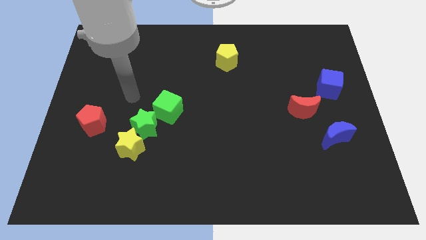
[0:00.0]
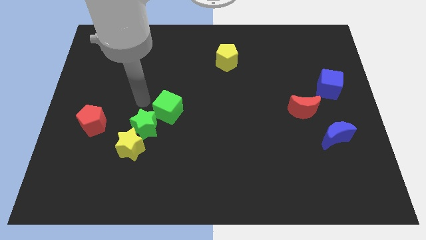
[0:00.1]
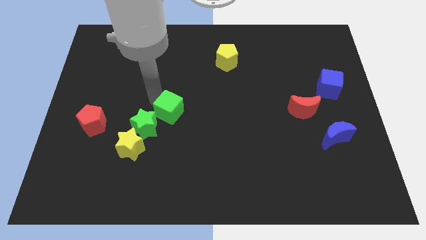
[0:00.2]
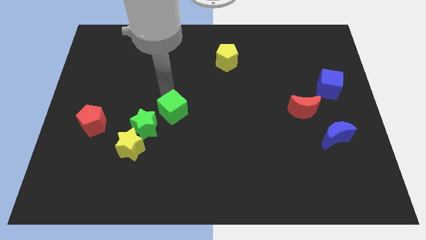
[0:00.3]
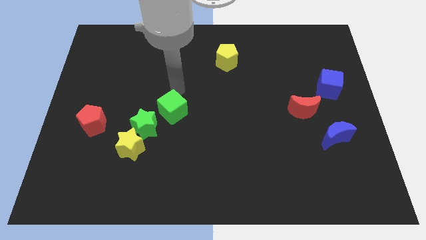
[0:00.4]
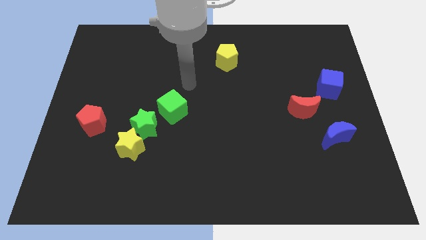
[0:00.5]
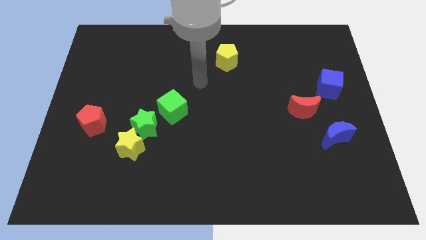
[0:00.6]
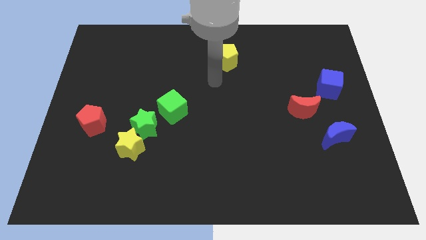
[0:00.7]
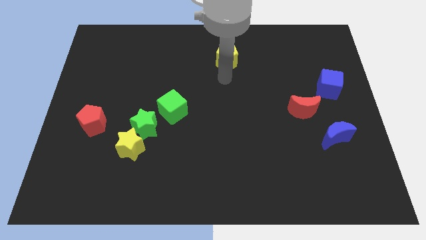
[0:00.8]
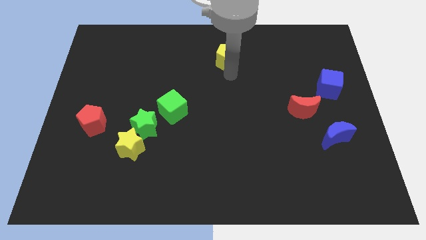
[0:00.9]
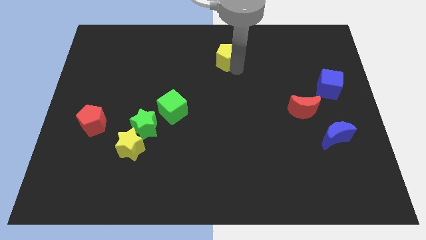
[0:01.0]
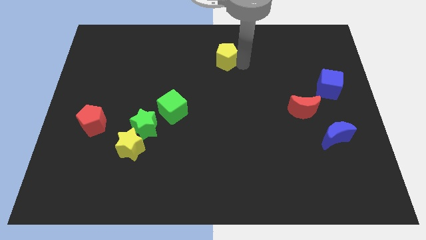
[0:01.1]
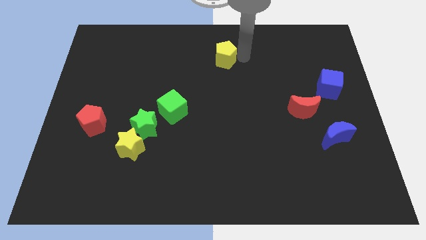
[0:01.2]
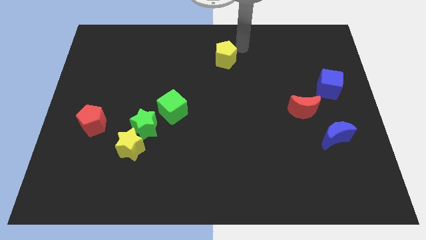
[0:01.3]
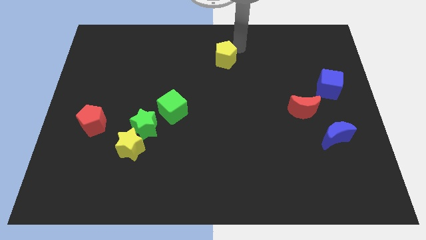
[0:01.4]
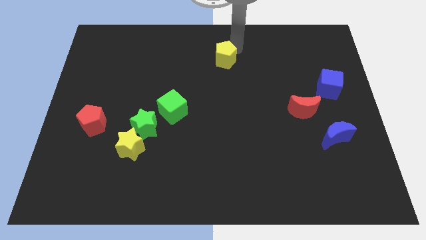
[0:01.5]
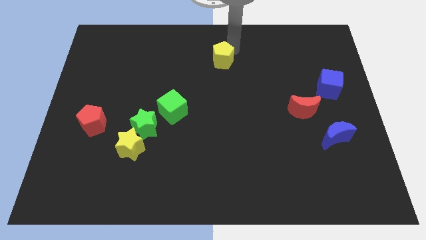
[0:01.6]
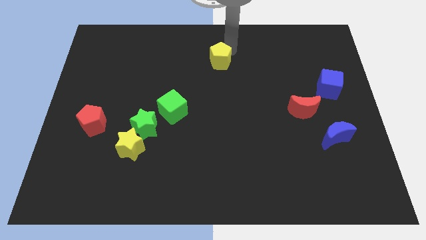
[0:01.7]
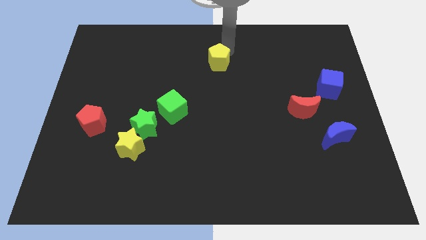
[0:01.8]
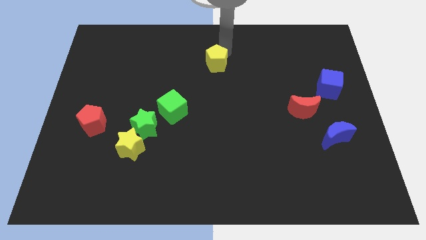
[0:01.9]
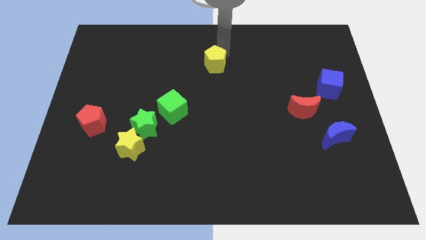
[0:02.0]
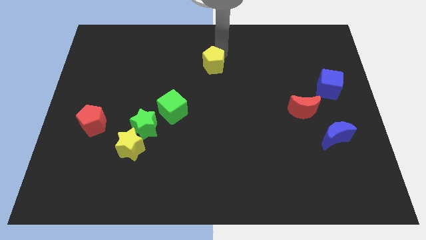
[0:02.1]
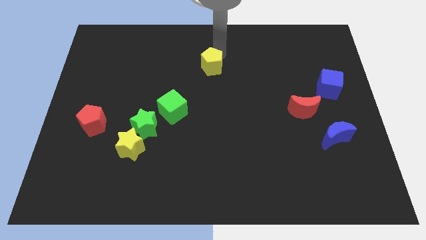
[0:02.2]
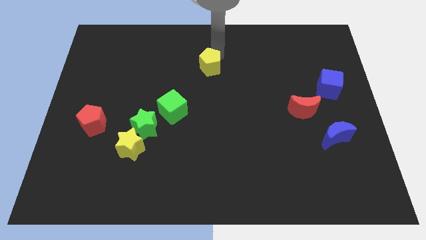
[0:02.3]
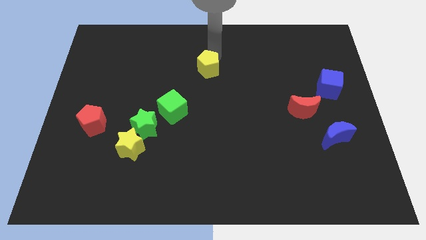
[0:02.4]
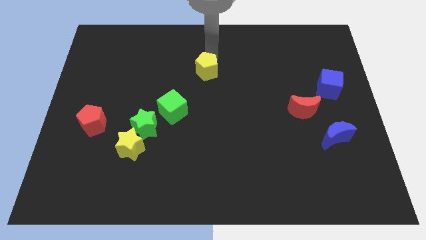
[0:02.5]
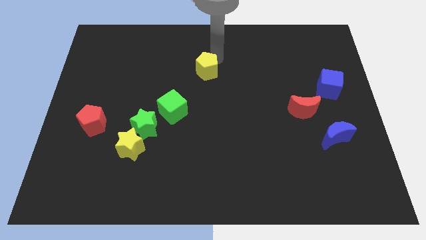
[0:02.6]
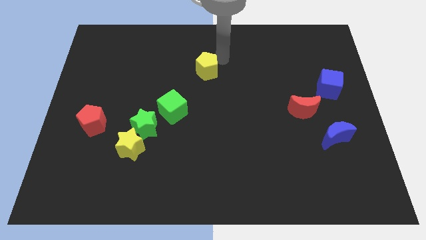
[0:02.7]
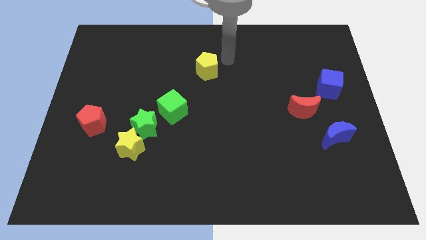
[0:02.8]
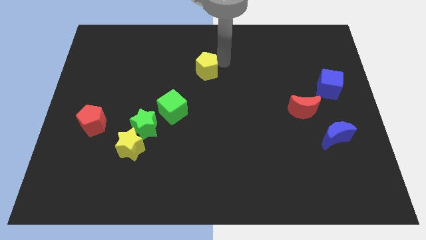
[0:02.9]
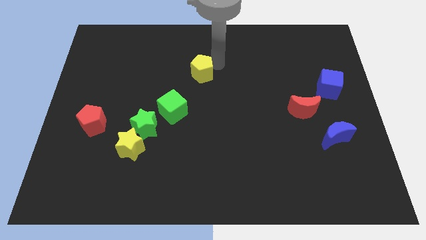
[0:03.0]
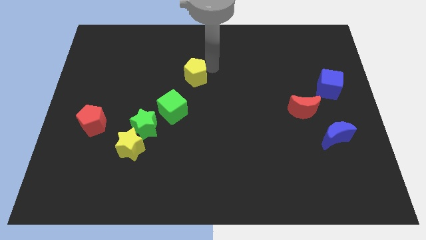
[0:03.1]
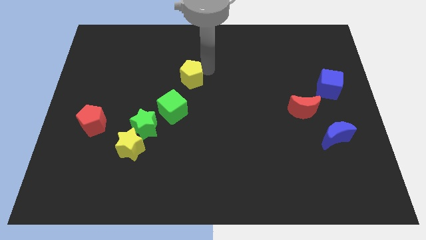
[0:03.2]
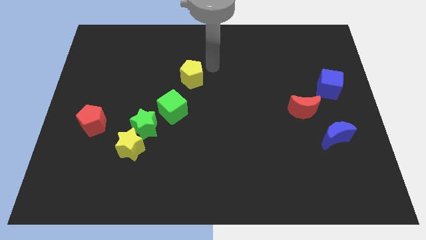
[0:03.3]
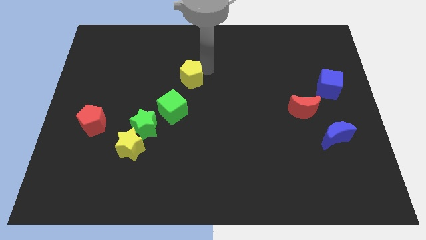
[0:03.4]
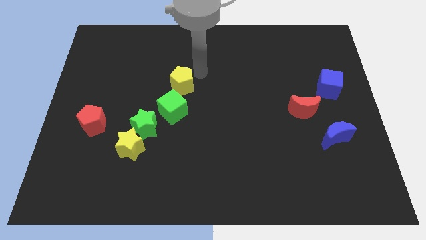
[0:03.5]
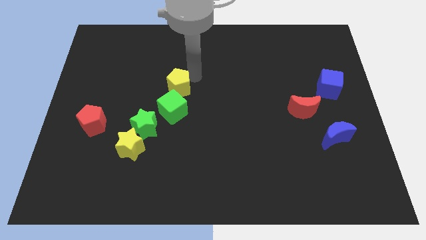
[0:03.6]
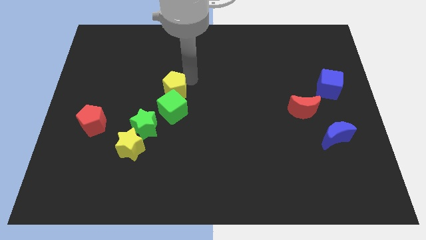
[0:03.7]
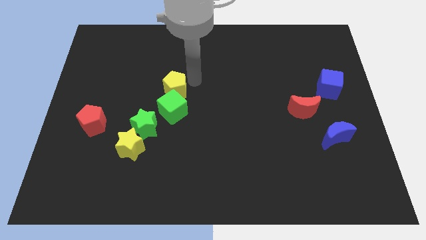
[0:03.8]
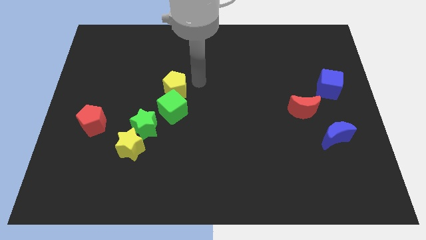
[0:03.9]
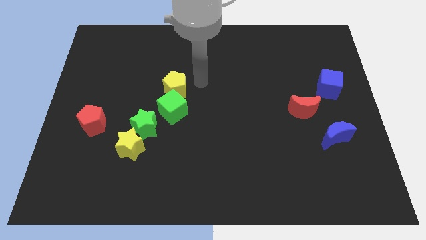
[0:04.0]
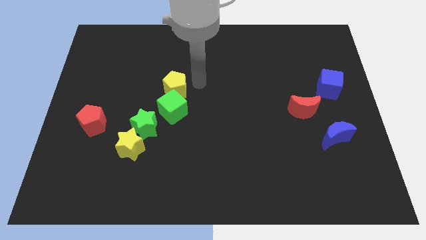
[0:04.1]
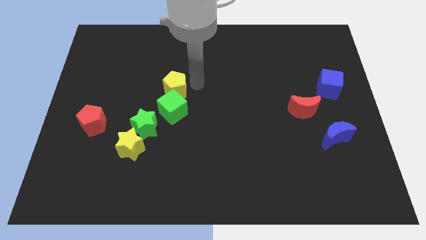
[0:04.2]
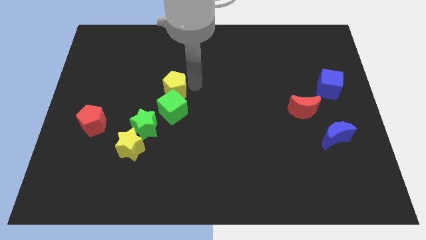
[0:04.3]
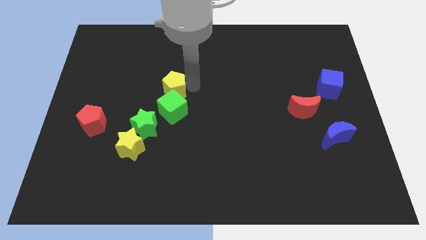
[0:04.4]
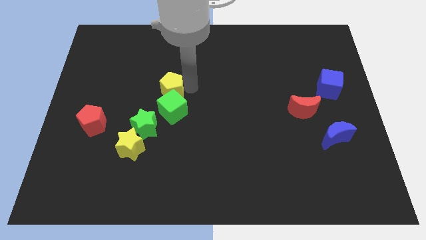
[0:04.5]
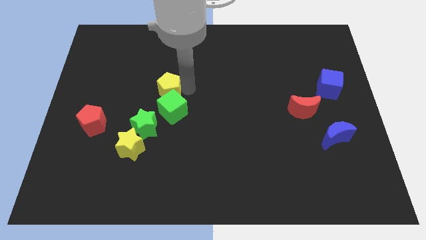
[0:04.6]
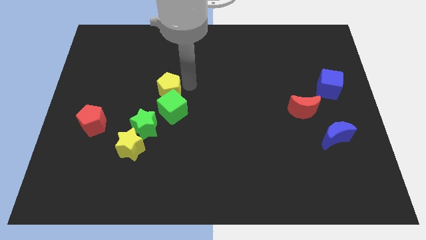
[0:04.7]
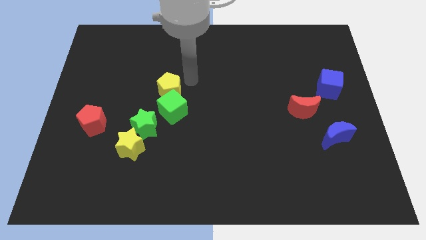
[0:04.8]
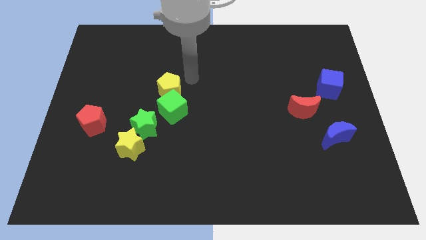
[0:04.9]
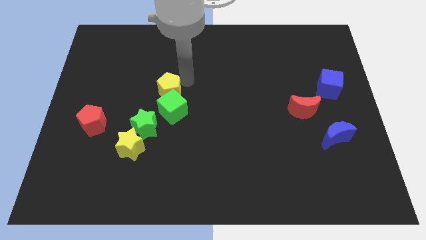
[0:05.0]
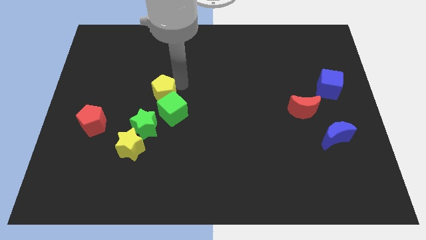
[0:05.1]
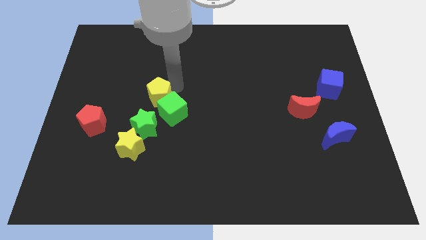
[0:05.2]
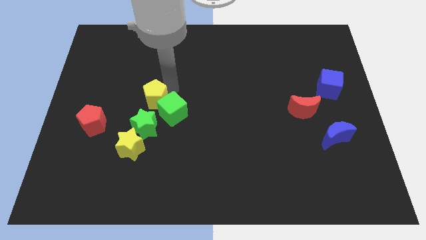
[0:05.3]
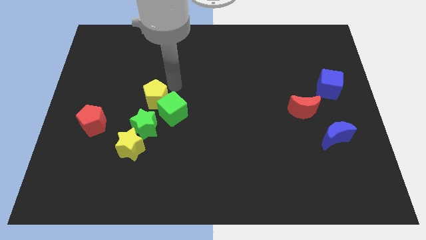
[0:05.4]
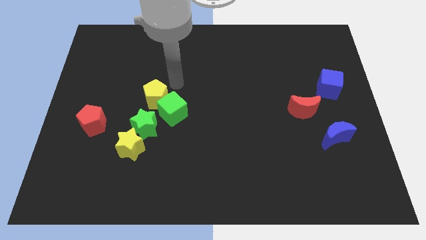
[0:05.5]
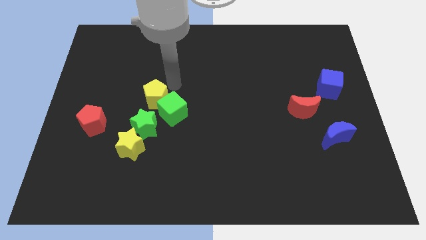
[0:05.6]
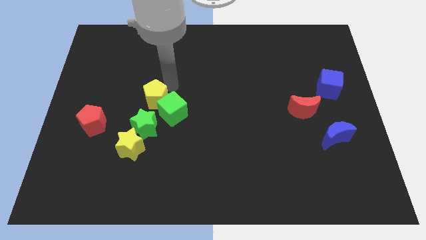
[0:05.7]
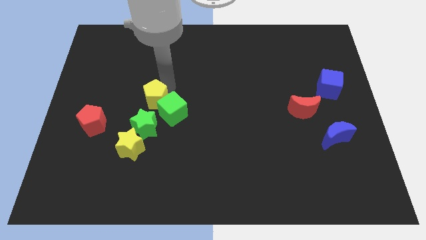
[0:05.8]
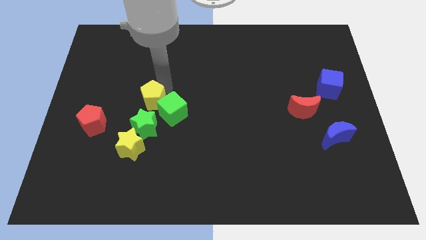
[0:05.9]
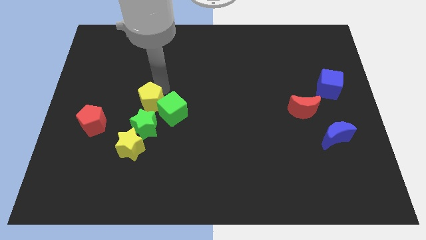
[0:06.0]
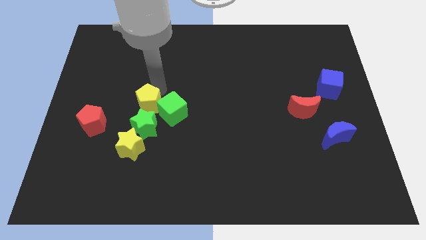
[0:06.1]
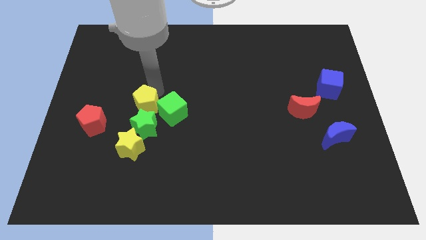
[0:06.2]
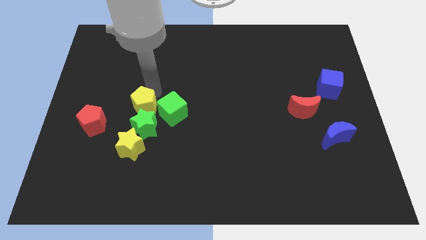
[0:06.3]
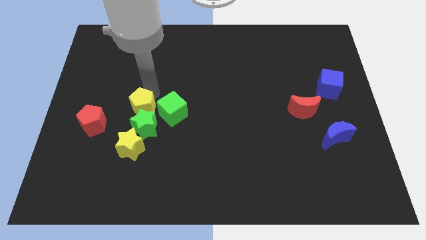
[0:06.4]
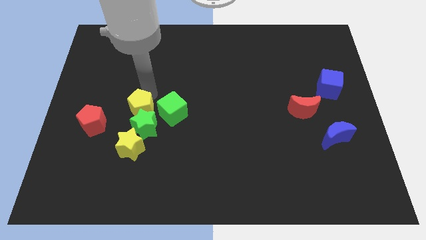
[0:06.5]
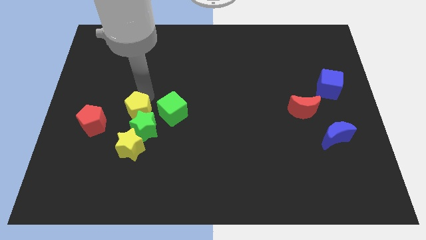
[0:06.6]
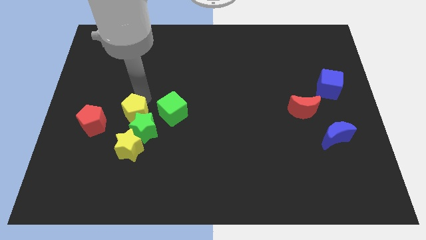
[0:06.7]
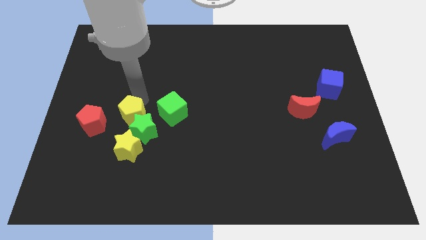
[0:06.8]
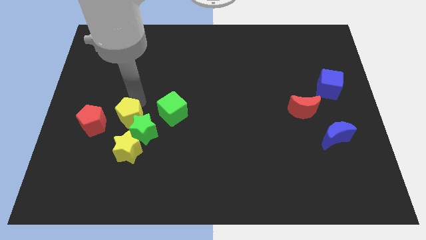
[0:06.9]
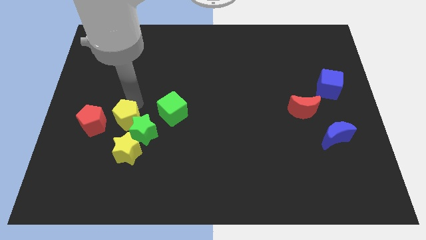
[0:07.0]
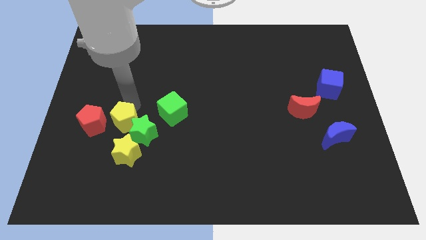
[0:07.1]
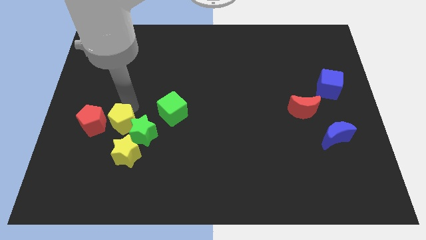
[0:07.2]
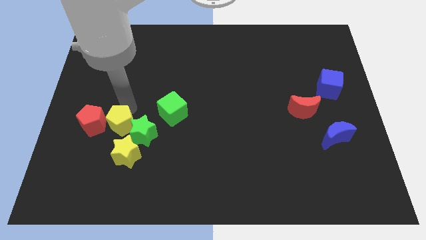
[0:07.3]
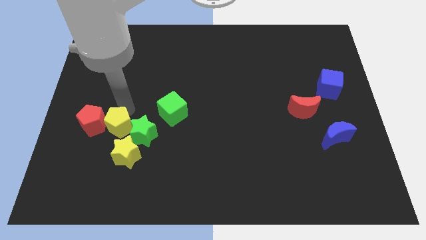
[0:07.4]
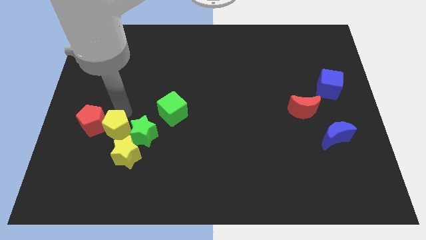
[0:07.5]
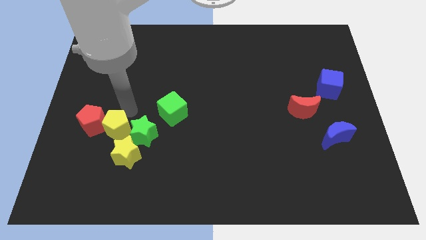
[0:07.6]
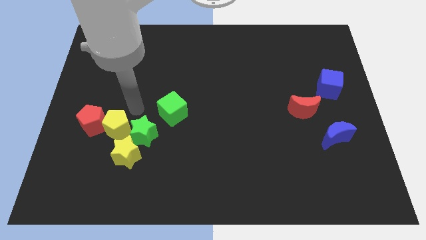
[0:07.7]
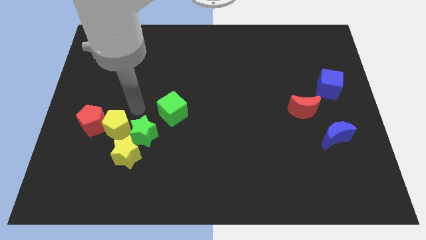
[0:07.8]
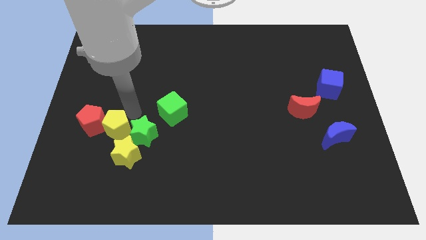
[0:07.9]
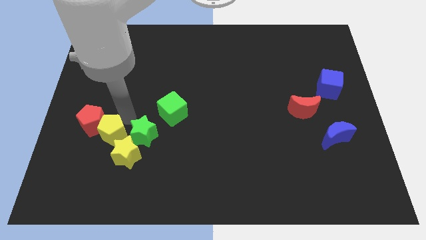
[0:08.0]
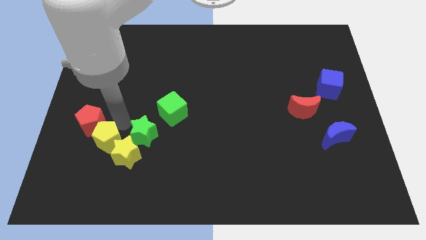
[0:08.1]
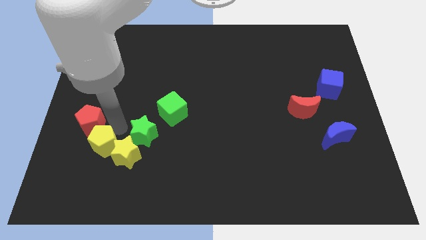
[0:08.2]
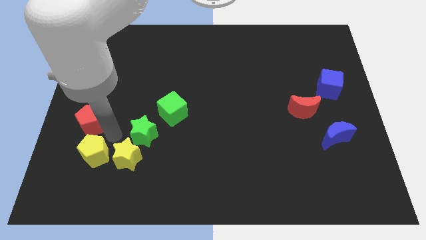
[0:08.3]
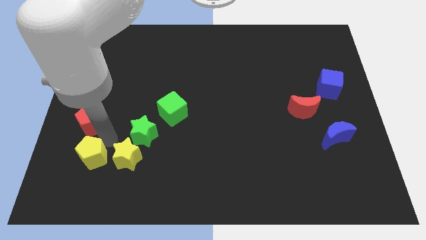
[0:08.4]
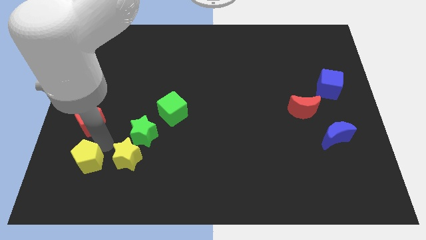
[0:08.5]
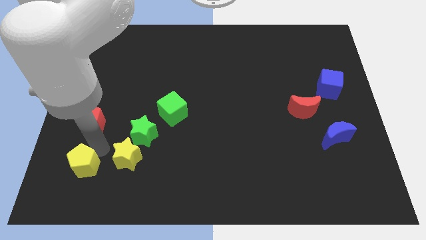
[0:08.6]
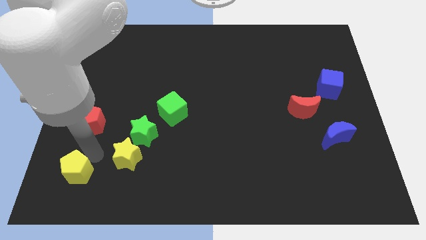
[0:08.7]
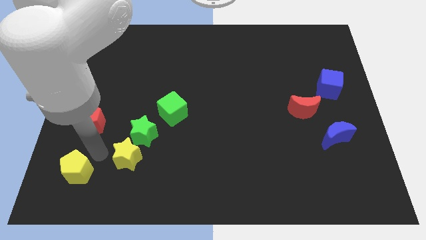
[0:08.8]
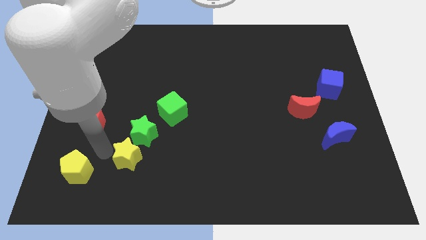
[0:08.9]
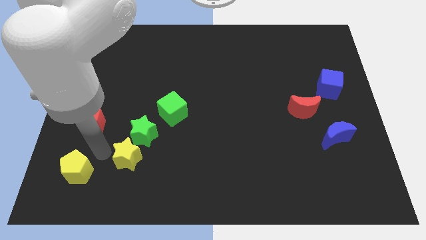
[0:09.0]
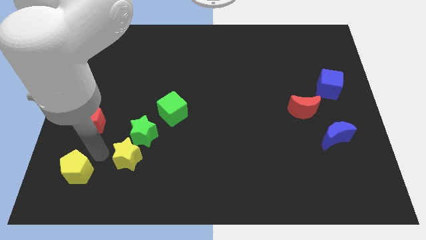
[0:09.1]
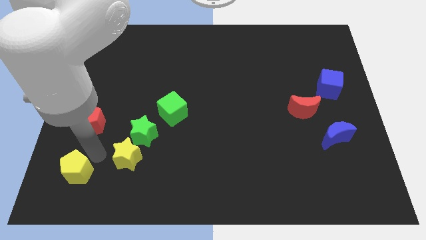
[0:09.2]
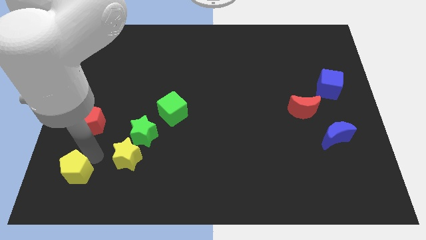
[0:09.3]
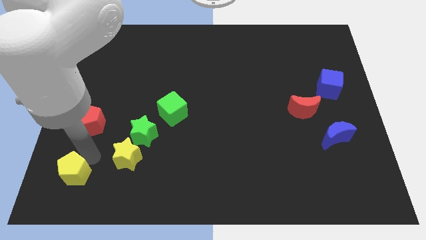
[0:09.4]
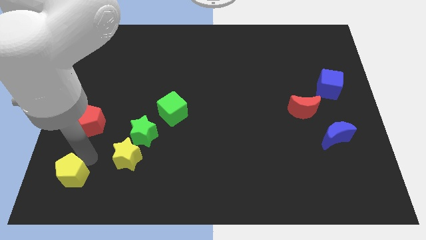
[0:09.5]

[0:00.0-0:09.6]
push the yellow pentagon to the lower left corner
